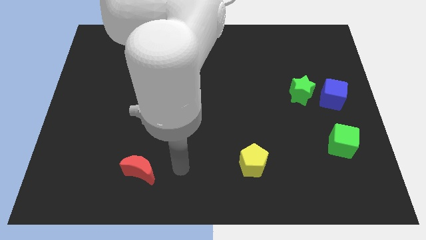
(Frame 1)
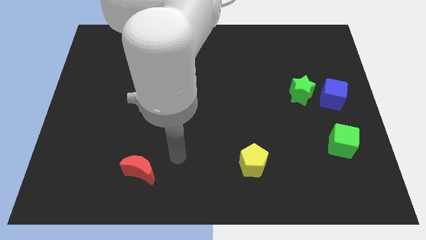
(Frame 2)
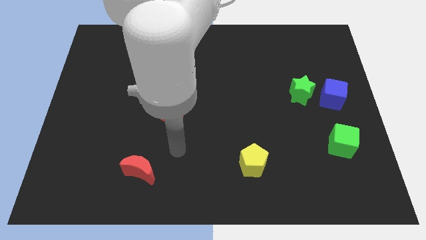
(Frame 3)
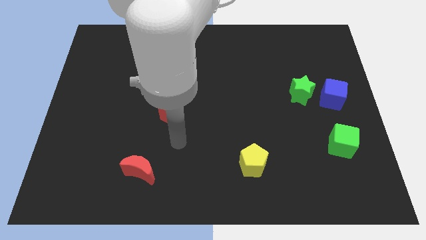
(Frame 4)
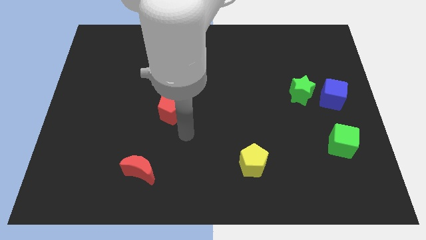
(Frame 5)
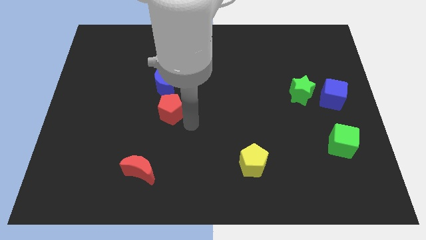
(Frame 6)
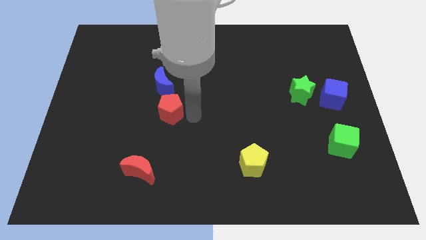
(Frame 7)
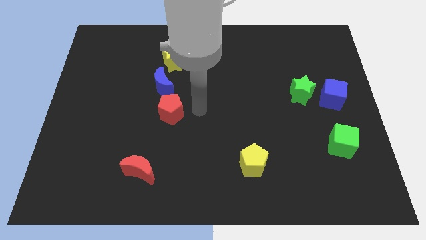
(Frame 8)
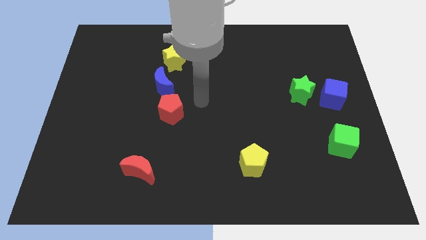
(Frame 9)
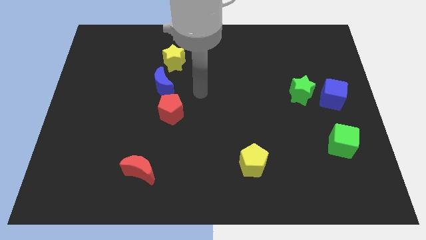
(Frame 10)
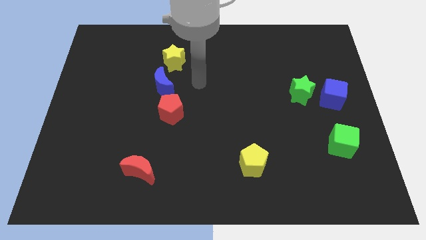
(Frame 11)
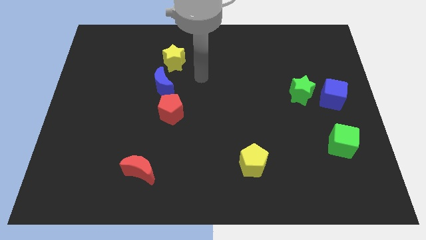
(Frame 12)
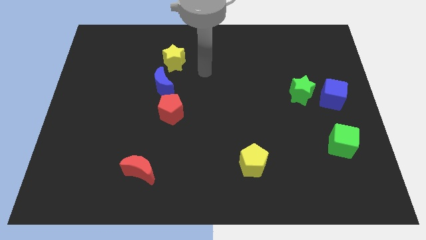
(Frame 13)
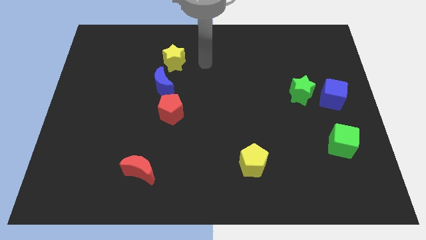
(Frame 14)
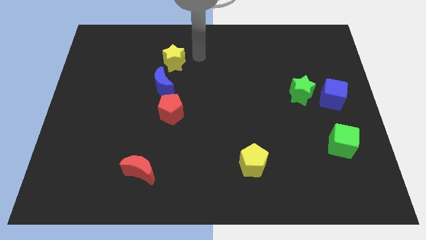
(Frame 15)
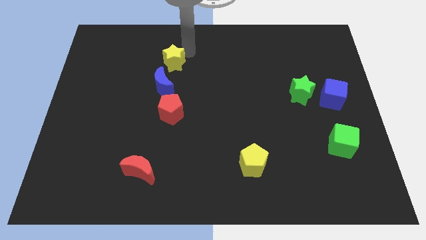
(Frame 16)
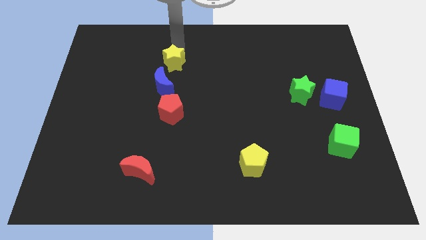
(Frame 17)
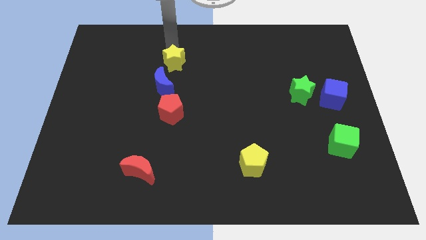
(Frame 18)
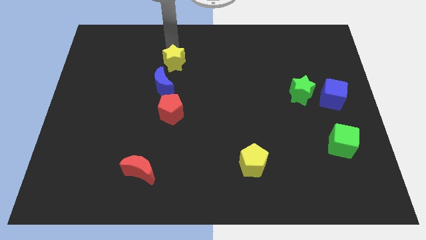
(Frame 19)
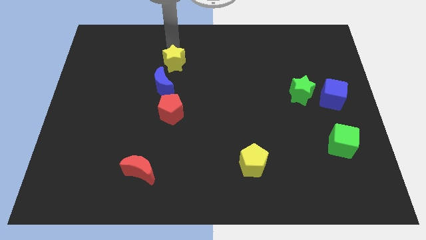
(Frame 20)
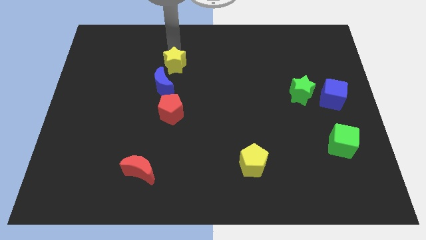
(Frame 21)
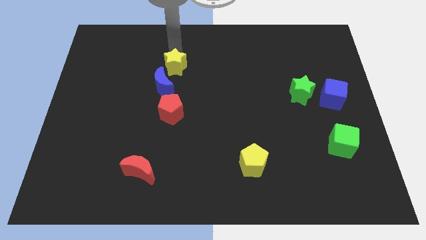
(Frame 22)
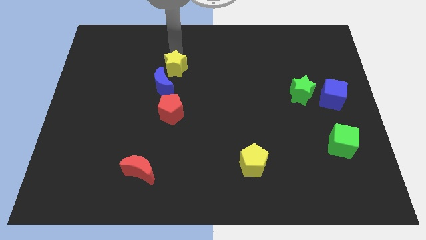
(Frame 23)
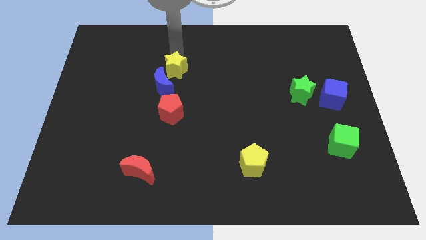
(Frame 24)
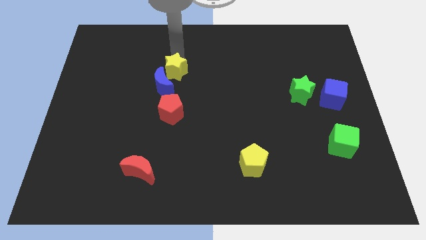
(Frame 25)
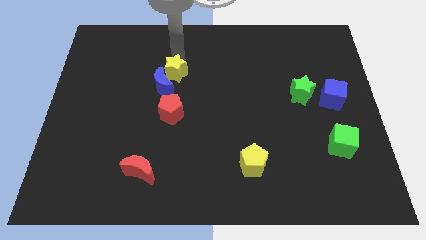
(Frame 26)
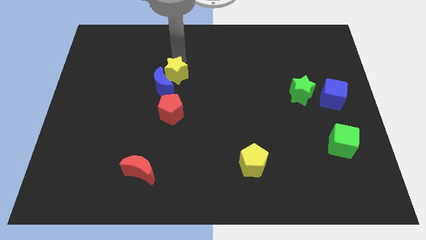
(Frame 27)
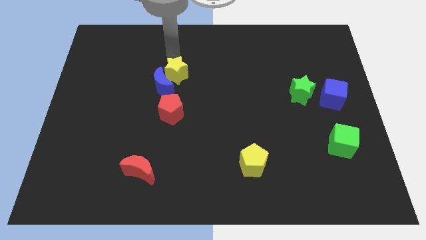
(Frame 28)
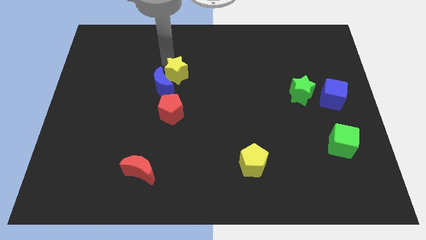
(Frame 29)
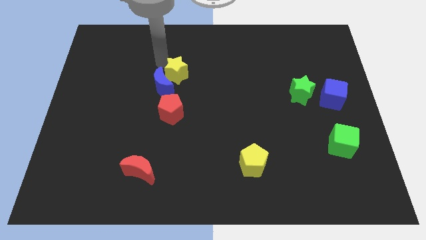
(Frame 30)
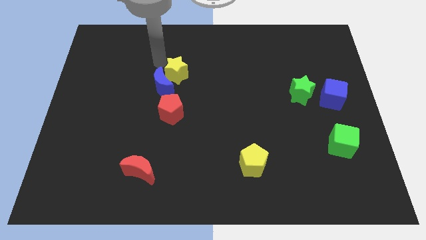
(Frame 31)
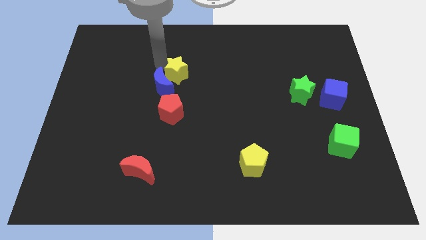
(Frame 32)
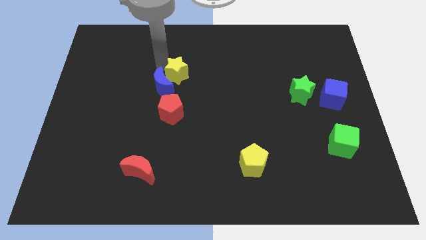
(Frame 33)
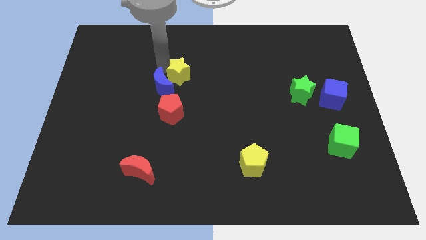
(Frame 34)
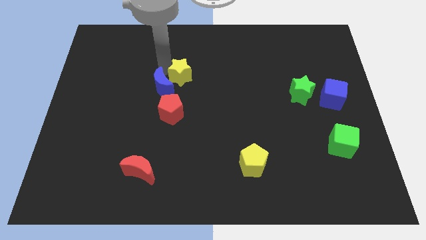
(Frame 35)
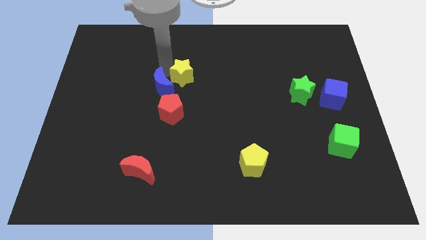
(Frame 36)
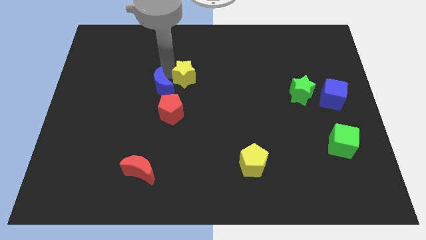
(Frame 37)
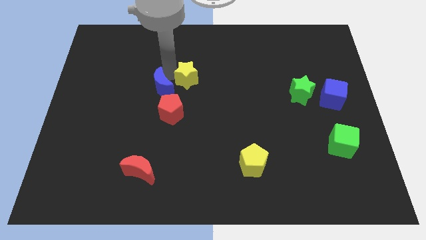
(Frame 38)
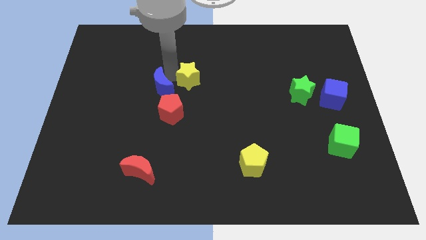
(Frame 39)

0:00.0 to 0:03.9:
move the yellow star a bit down and right diagonally

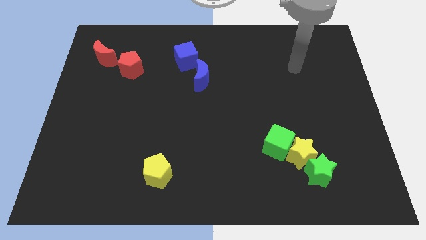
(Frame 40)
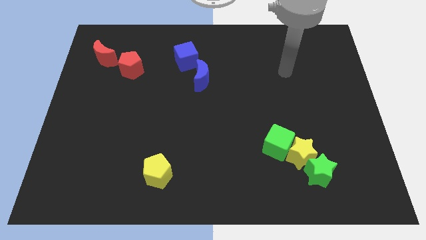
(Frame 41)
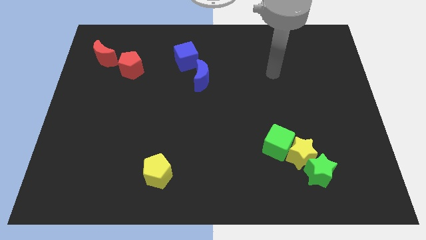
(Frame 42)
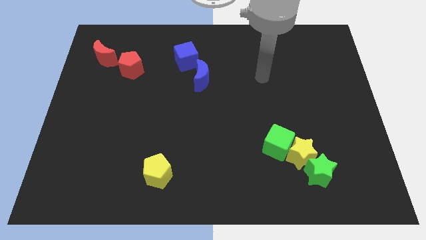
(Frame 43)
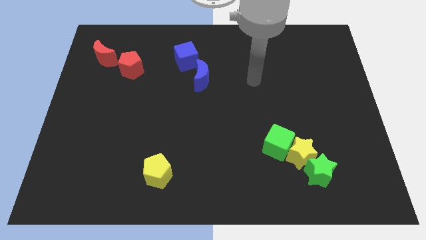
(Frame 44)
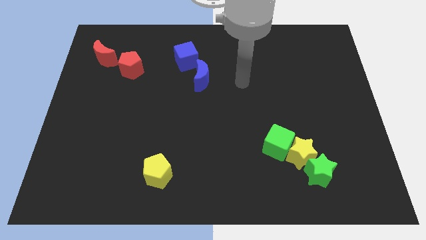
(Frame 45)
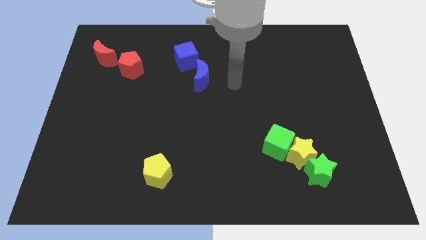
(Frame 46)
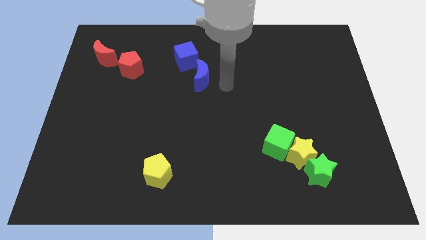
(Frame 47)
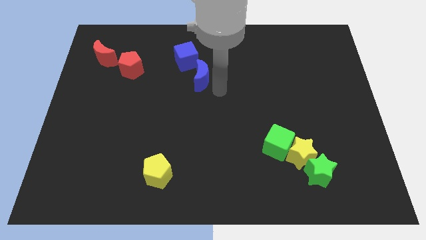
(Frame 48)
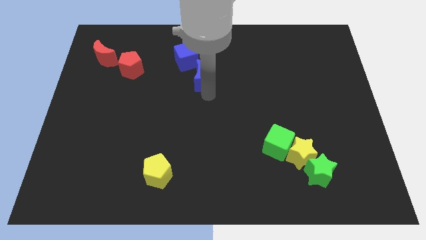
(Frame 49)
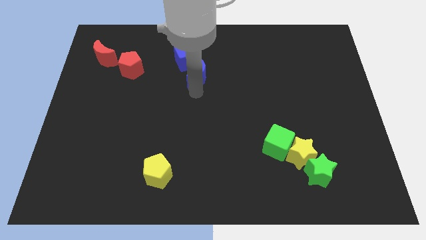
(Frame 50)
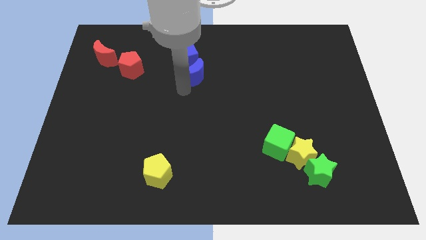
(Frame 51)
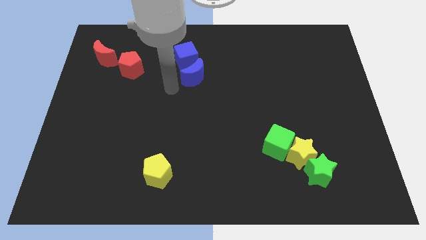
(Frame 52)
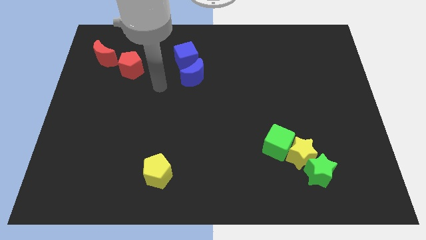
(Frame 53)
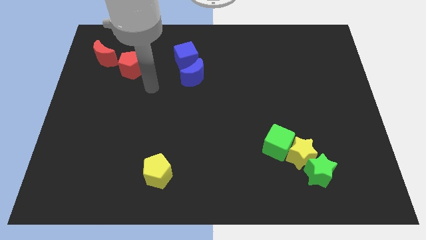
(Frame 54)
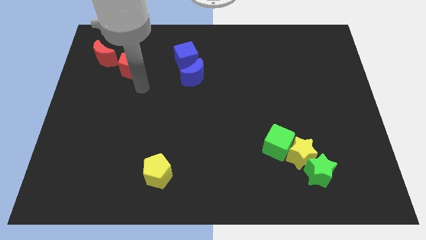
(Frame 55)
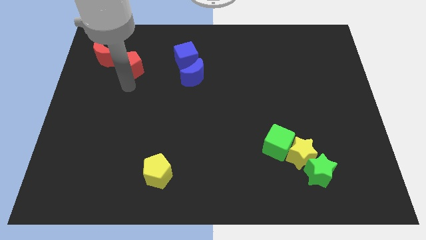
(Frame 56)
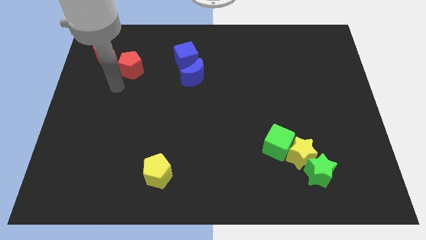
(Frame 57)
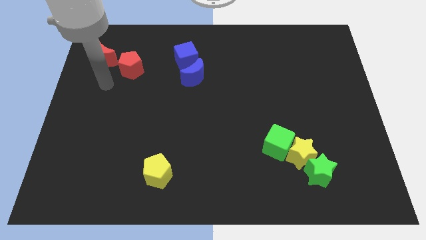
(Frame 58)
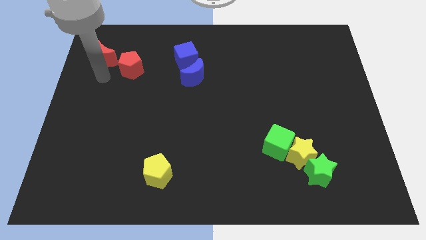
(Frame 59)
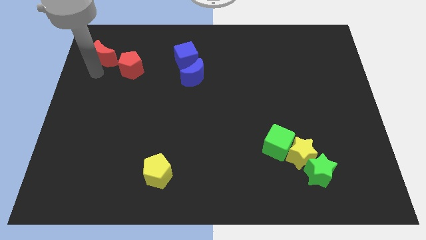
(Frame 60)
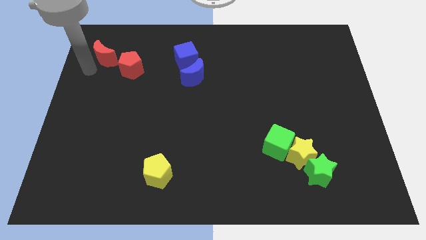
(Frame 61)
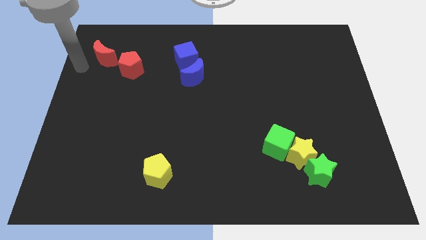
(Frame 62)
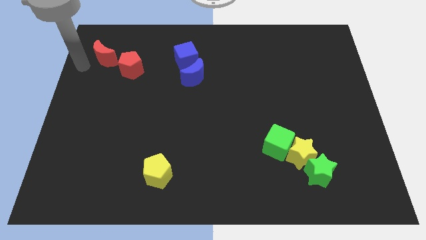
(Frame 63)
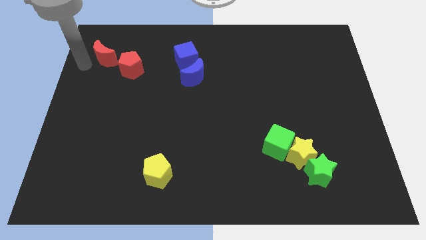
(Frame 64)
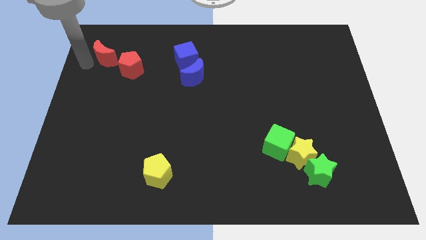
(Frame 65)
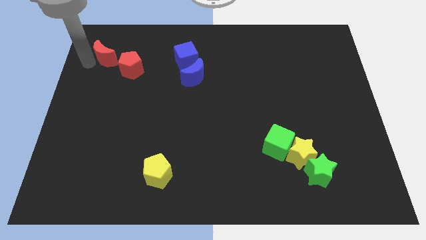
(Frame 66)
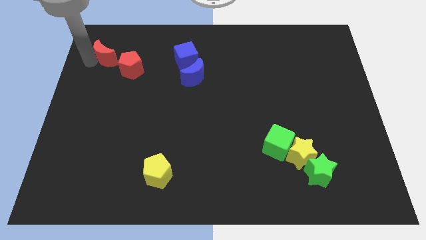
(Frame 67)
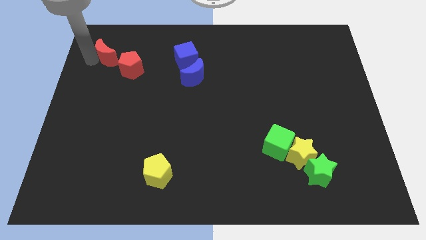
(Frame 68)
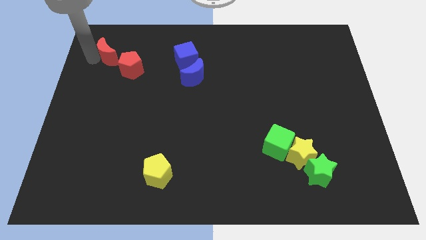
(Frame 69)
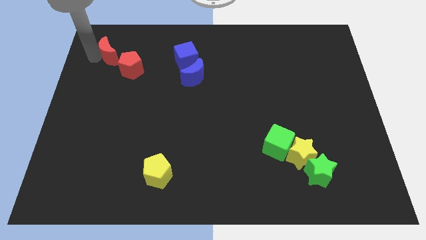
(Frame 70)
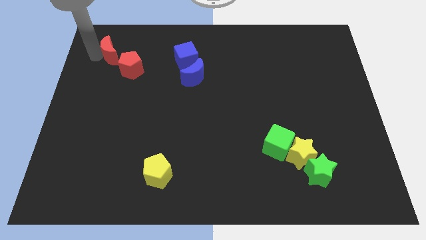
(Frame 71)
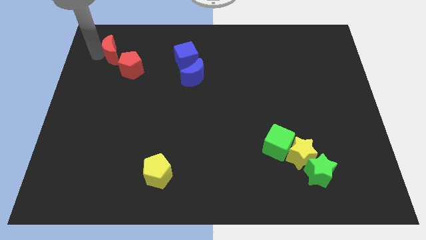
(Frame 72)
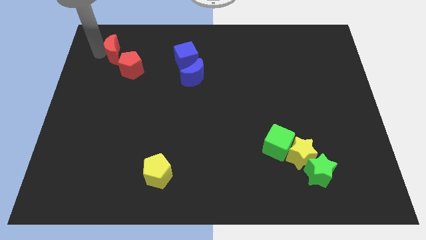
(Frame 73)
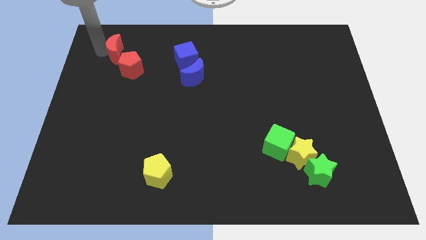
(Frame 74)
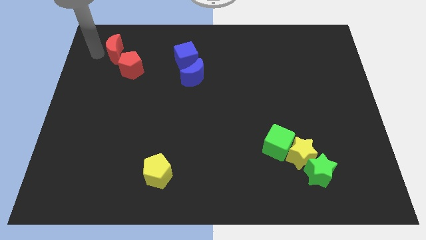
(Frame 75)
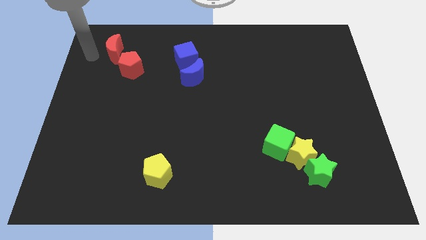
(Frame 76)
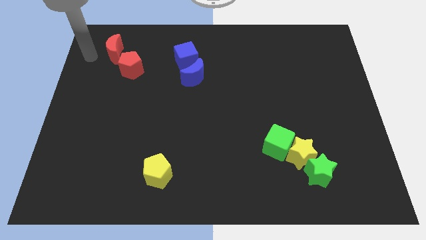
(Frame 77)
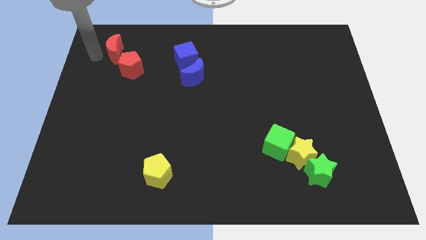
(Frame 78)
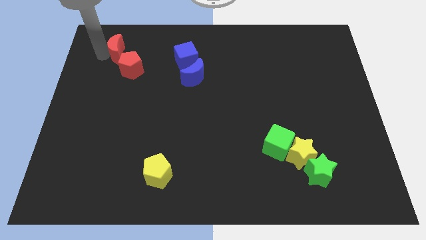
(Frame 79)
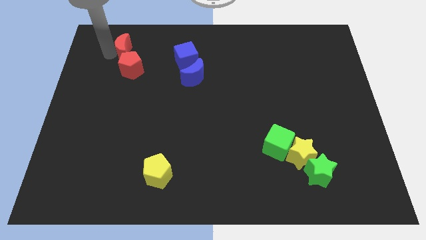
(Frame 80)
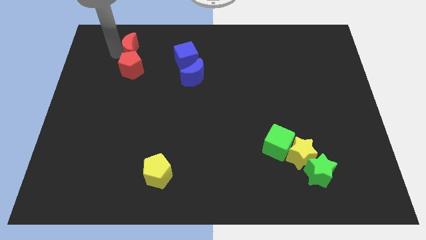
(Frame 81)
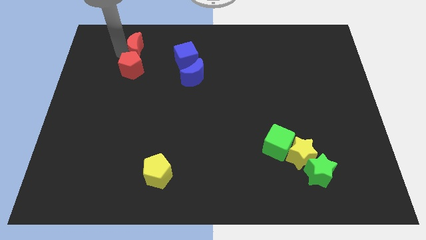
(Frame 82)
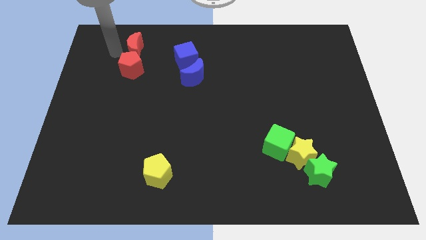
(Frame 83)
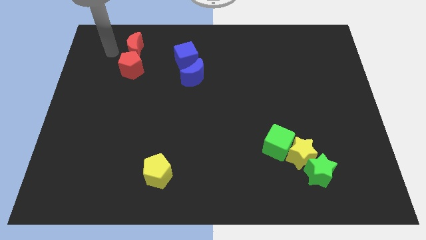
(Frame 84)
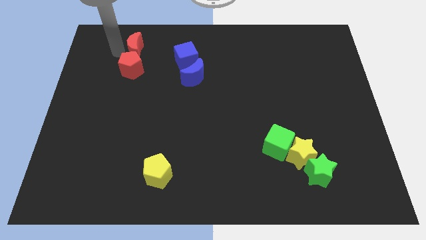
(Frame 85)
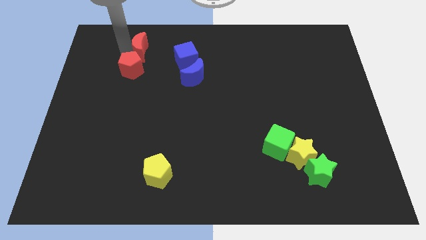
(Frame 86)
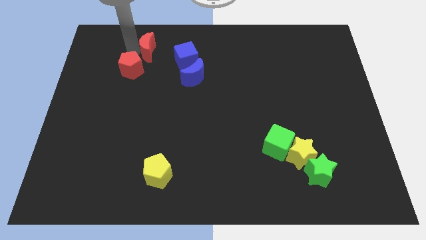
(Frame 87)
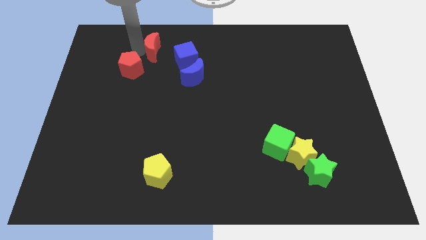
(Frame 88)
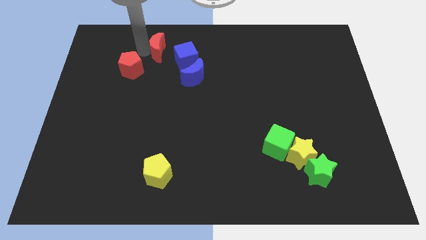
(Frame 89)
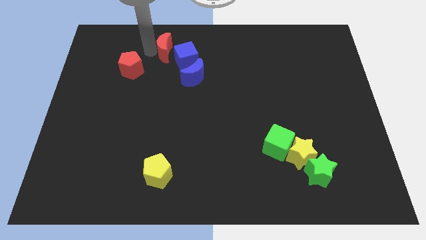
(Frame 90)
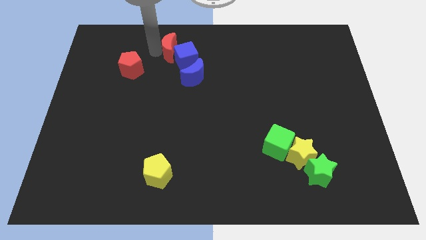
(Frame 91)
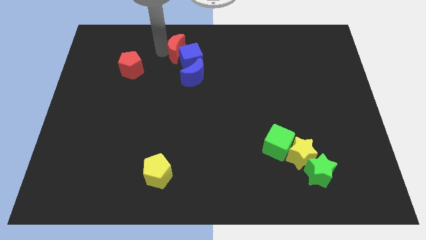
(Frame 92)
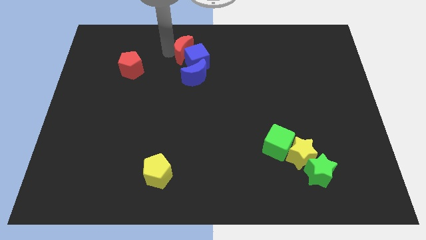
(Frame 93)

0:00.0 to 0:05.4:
slide the red moon to the right
